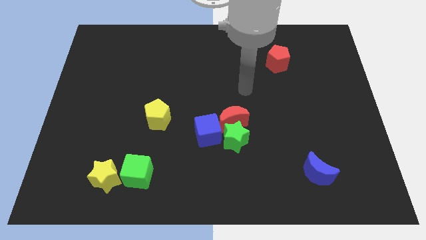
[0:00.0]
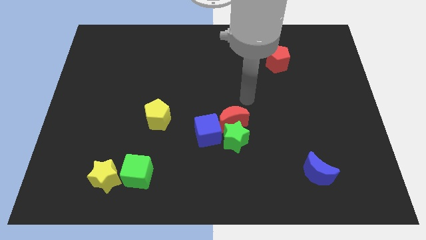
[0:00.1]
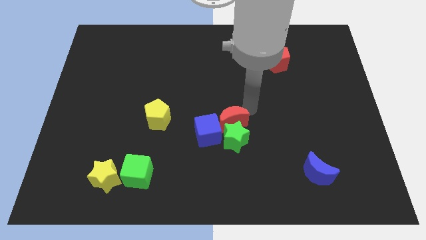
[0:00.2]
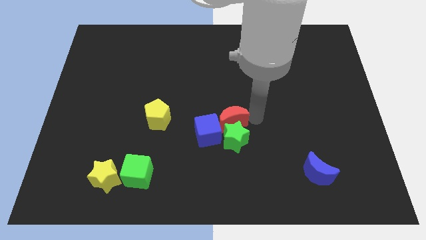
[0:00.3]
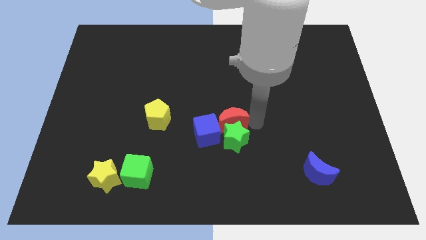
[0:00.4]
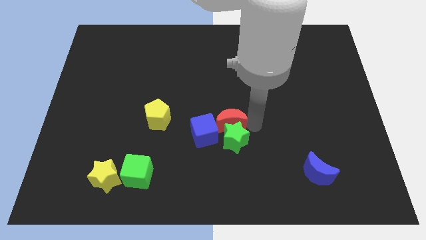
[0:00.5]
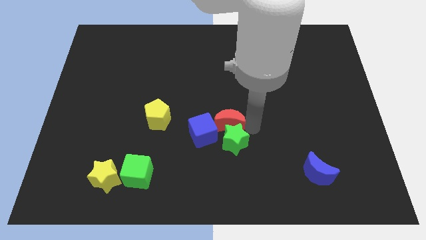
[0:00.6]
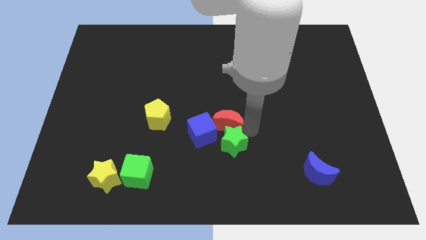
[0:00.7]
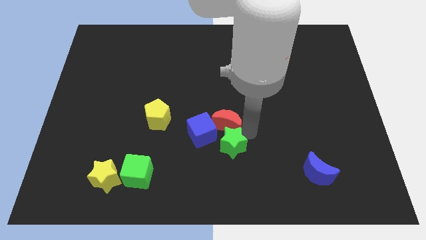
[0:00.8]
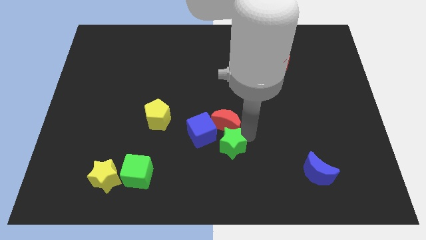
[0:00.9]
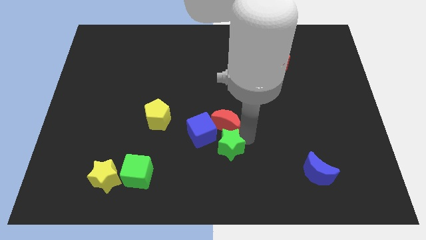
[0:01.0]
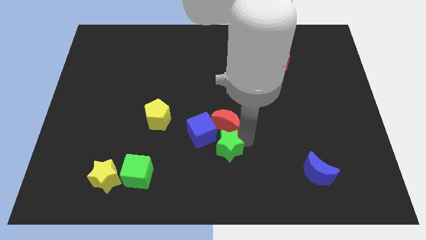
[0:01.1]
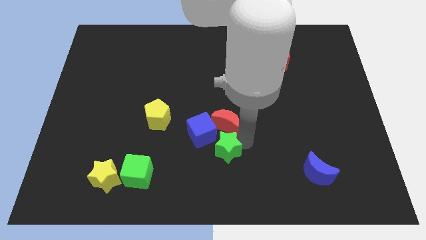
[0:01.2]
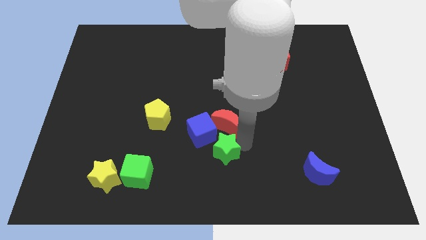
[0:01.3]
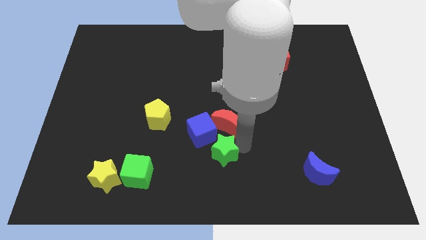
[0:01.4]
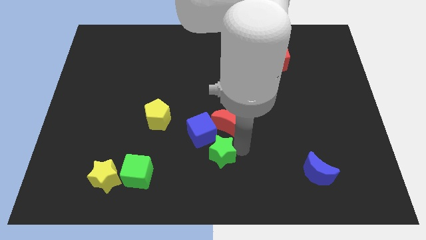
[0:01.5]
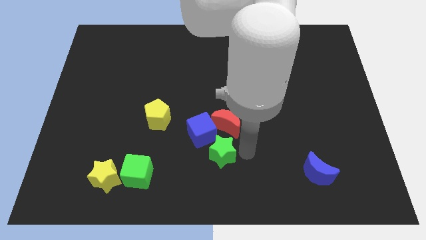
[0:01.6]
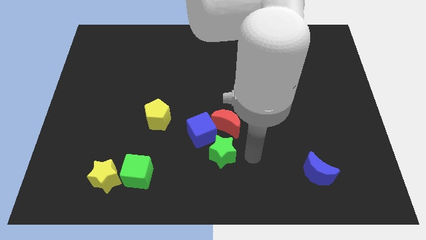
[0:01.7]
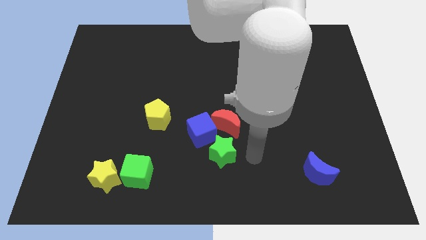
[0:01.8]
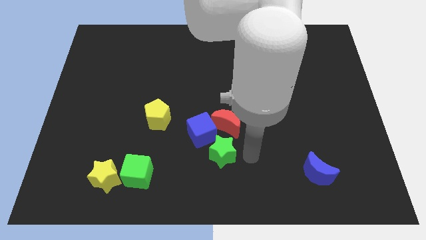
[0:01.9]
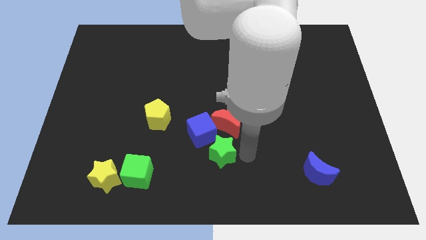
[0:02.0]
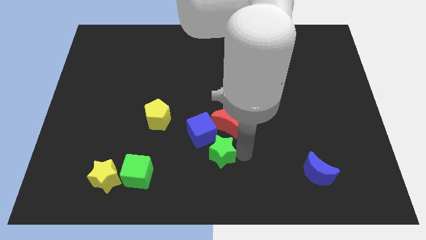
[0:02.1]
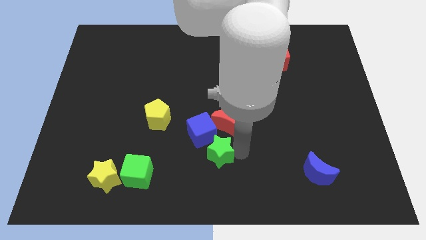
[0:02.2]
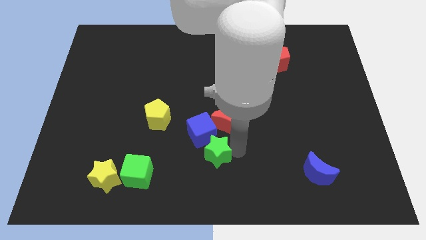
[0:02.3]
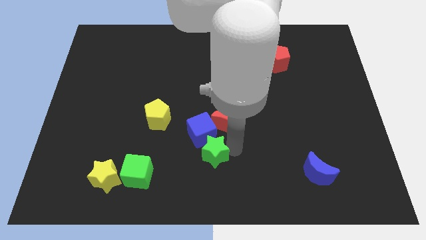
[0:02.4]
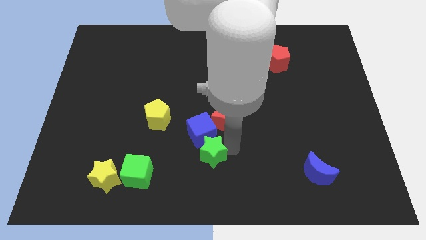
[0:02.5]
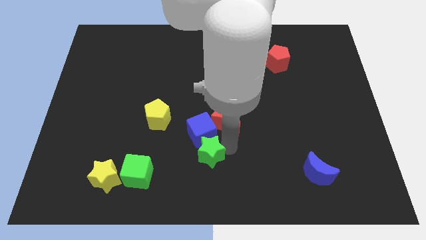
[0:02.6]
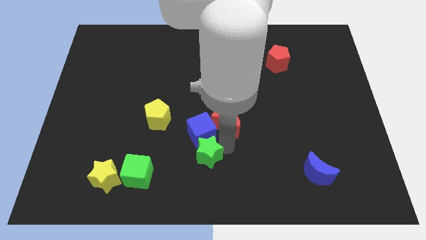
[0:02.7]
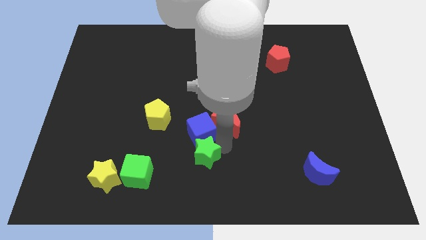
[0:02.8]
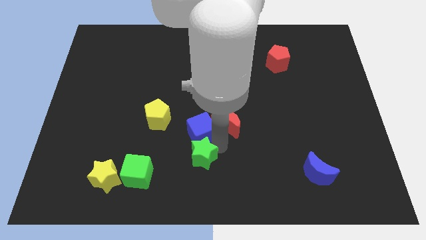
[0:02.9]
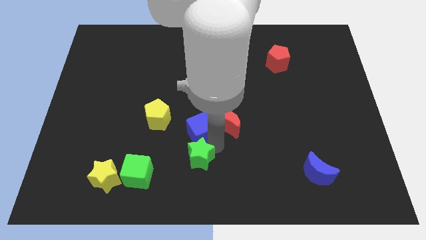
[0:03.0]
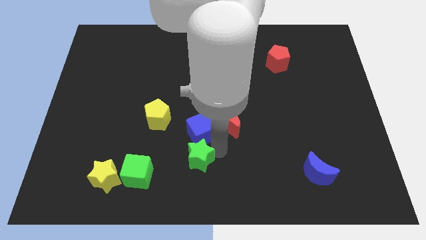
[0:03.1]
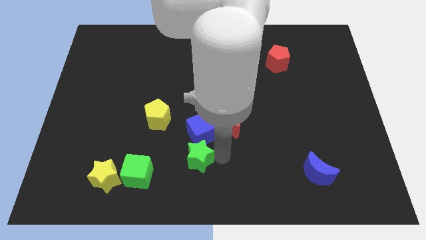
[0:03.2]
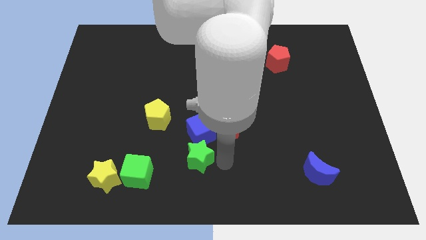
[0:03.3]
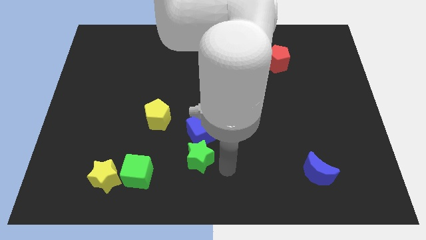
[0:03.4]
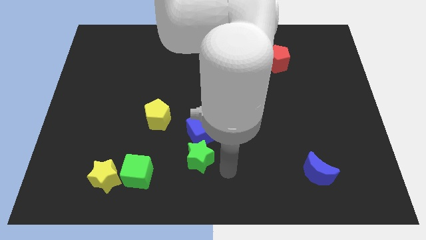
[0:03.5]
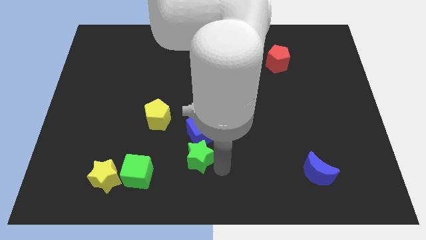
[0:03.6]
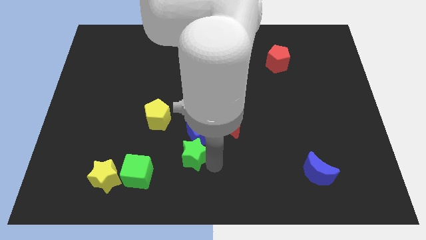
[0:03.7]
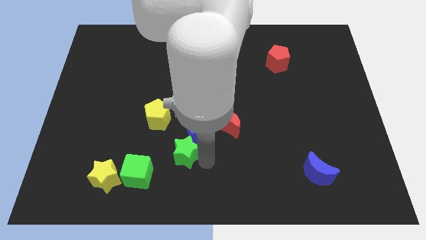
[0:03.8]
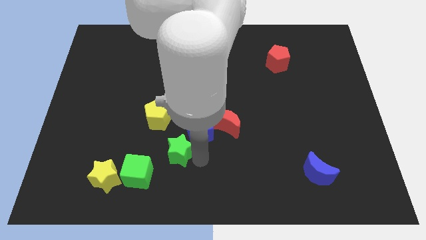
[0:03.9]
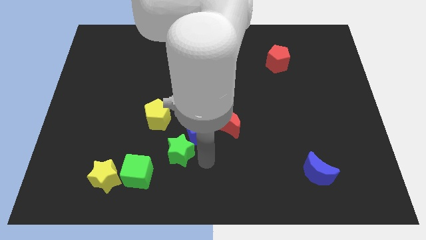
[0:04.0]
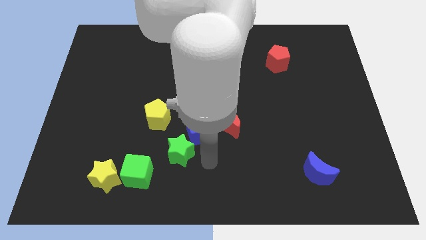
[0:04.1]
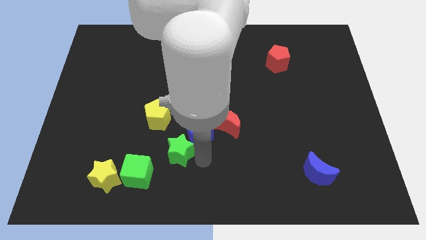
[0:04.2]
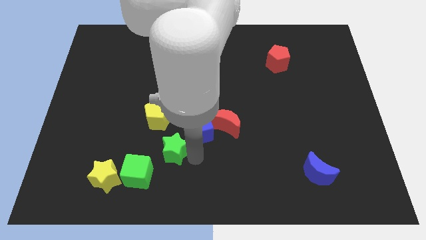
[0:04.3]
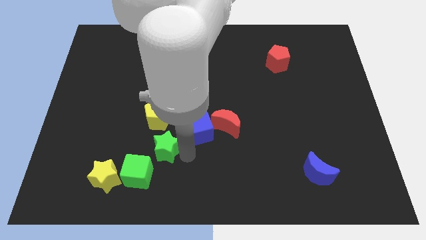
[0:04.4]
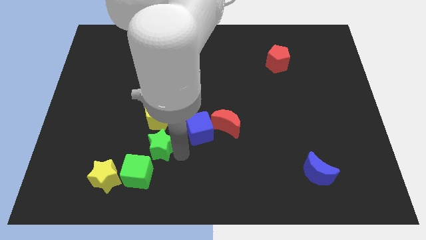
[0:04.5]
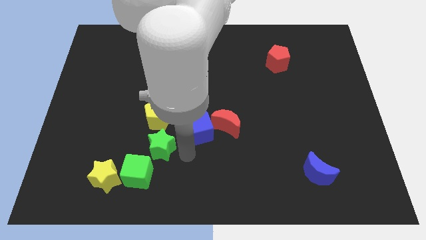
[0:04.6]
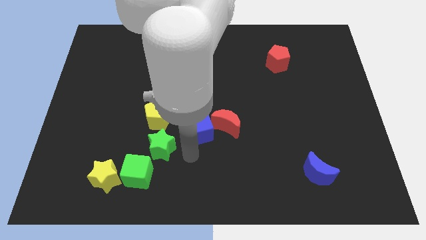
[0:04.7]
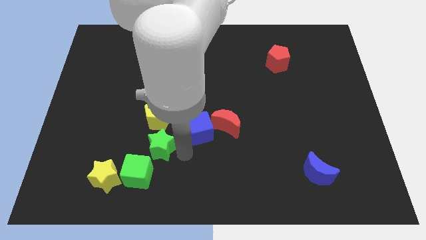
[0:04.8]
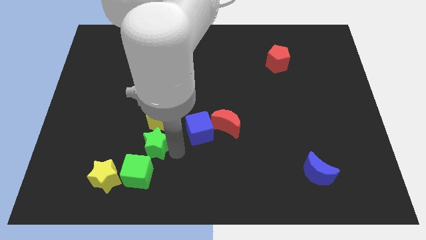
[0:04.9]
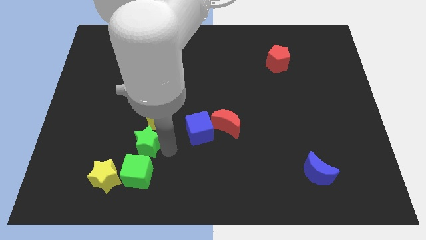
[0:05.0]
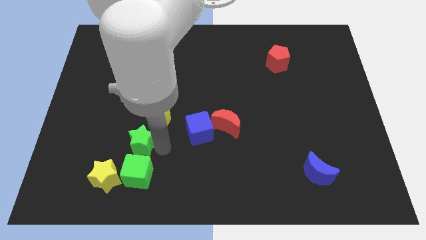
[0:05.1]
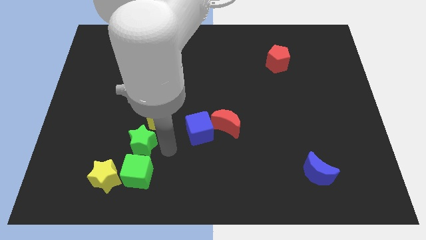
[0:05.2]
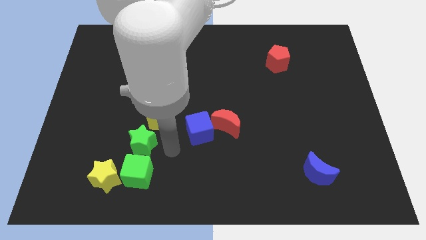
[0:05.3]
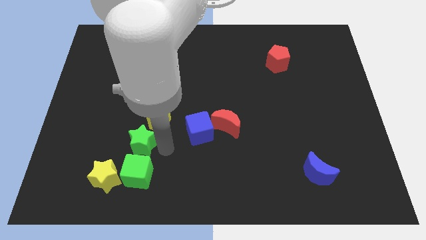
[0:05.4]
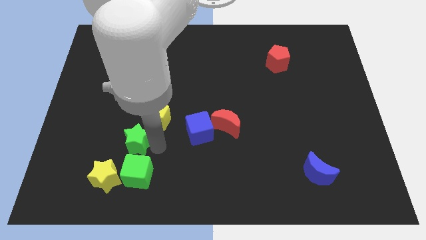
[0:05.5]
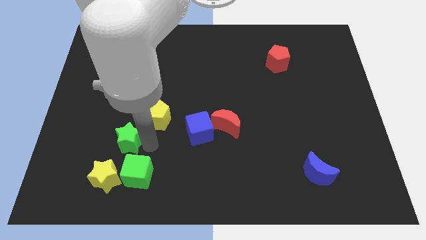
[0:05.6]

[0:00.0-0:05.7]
move the green star to the top of the yellow star

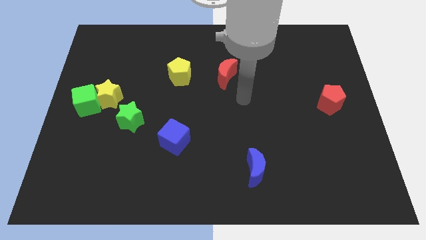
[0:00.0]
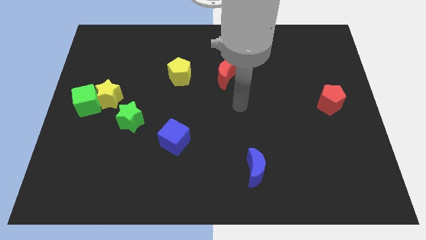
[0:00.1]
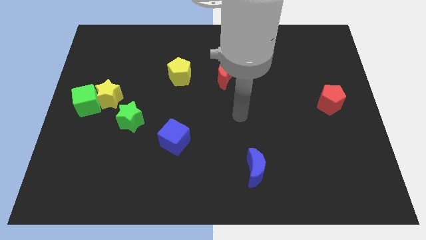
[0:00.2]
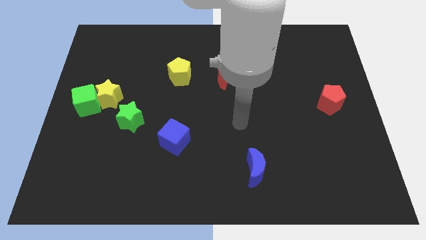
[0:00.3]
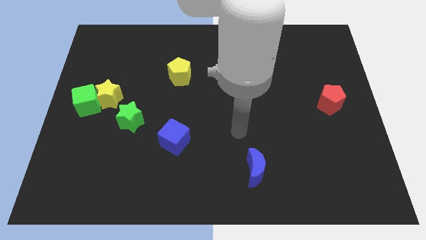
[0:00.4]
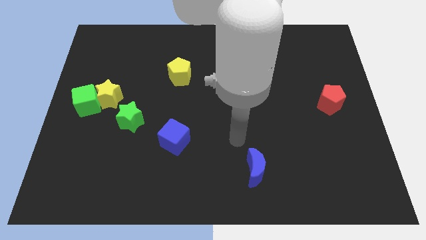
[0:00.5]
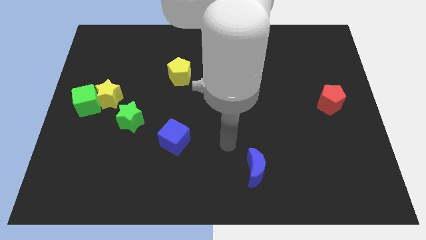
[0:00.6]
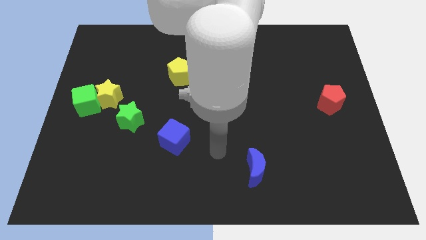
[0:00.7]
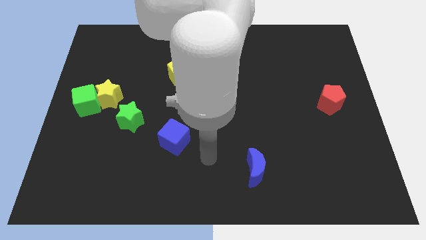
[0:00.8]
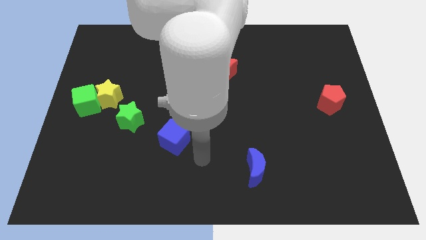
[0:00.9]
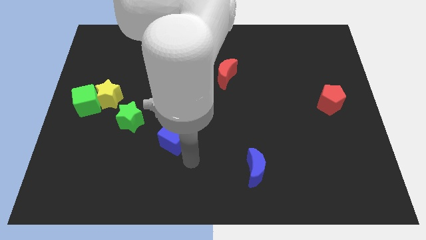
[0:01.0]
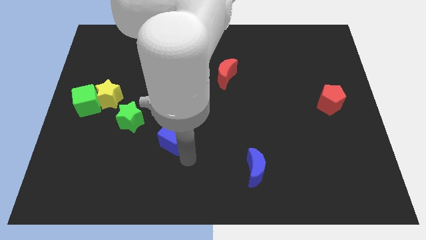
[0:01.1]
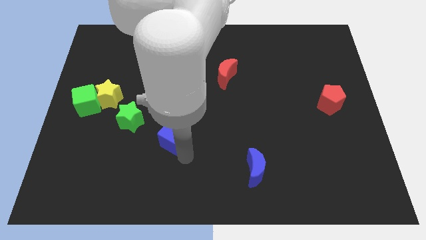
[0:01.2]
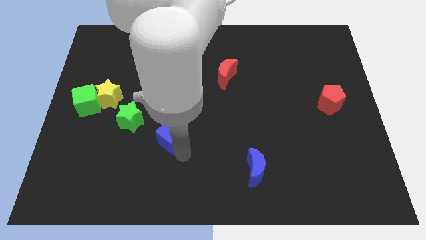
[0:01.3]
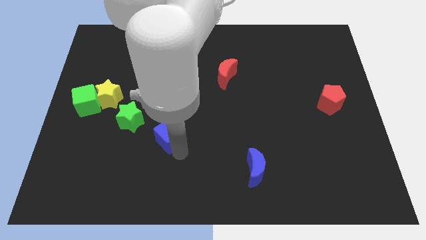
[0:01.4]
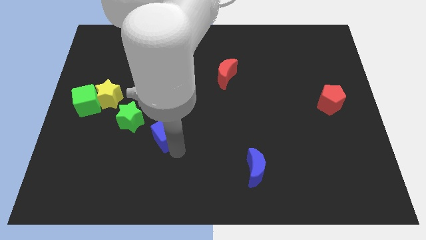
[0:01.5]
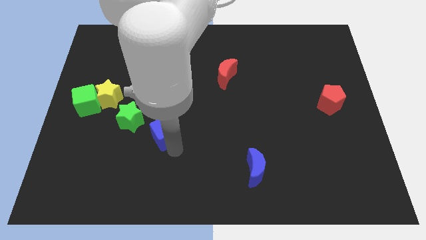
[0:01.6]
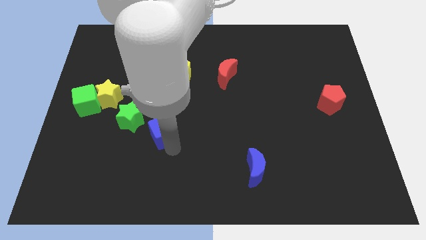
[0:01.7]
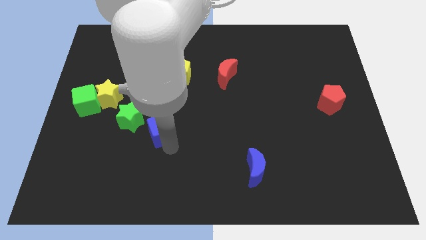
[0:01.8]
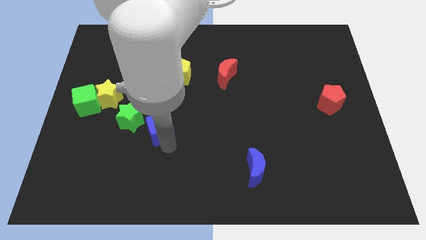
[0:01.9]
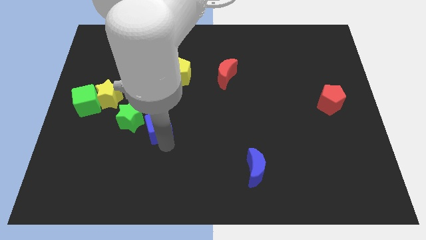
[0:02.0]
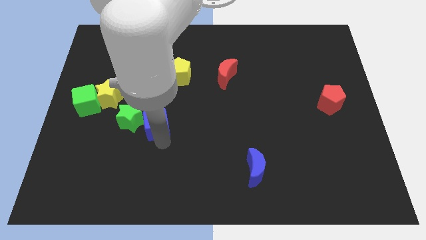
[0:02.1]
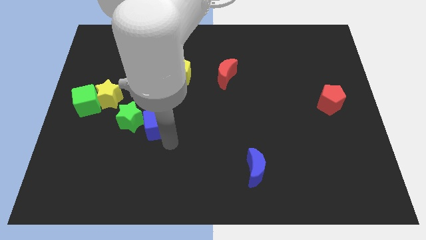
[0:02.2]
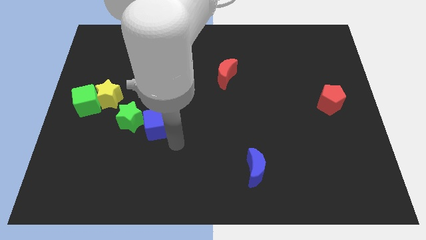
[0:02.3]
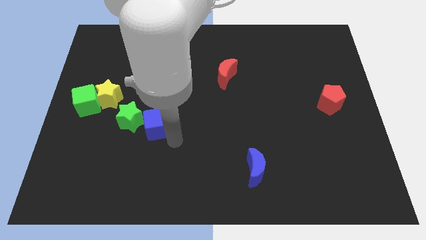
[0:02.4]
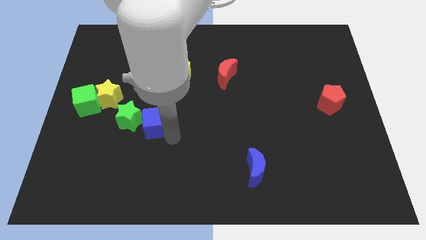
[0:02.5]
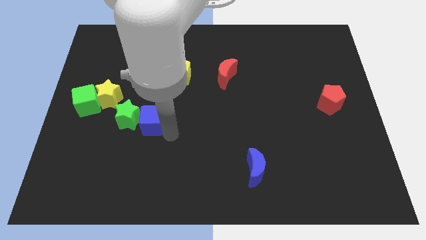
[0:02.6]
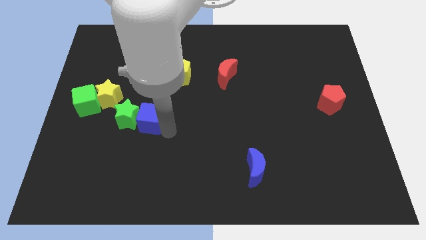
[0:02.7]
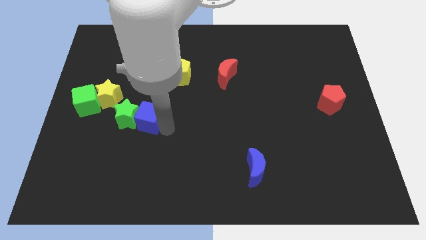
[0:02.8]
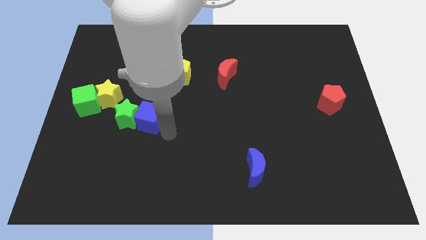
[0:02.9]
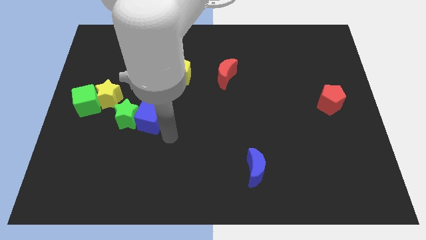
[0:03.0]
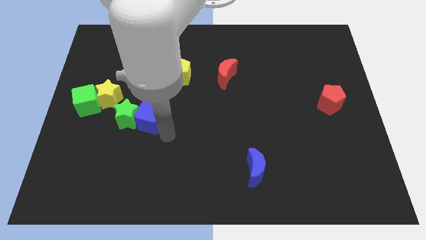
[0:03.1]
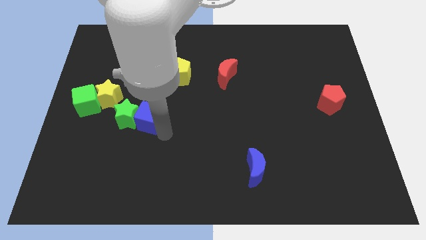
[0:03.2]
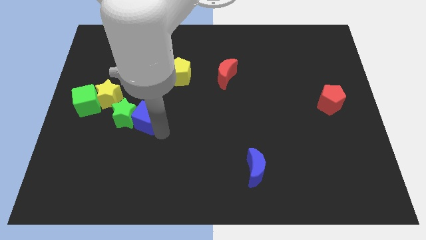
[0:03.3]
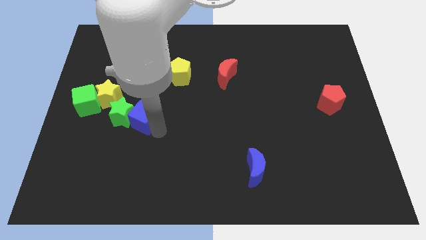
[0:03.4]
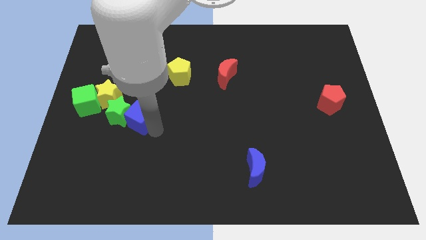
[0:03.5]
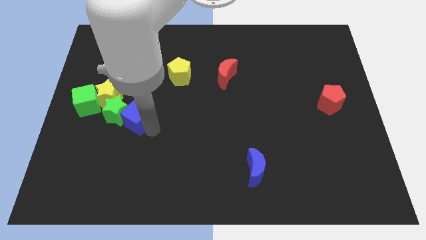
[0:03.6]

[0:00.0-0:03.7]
push the blue cube to the right side of the green cube
